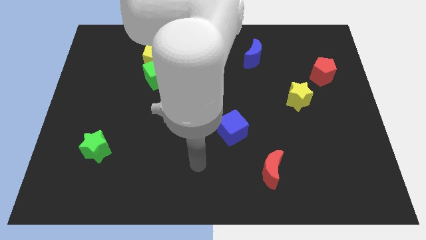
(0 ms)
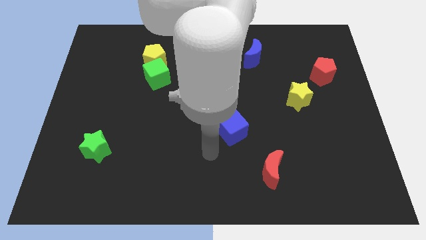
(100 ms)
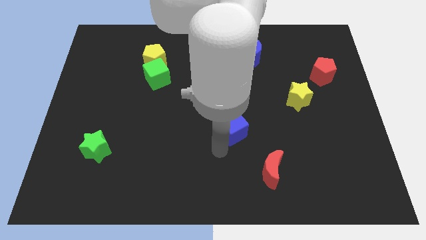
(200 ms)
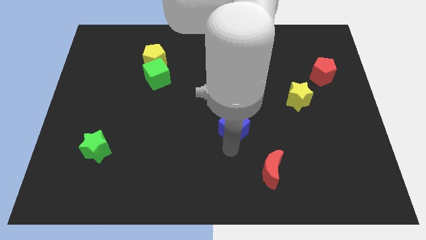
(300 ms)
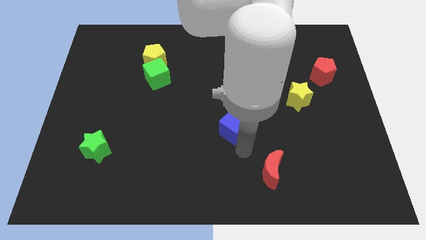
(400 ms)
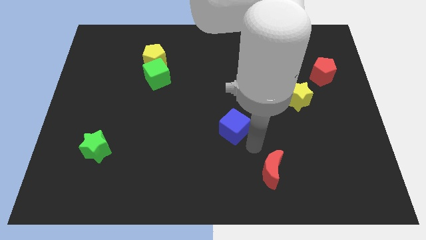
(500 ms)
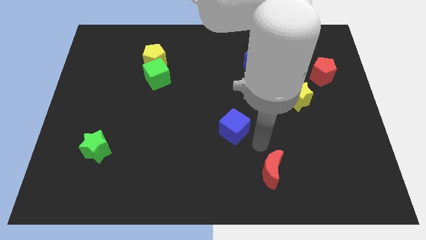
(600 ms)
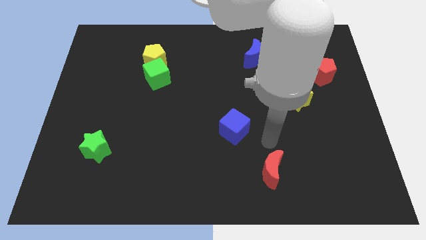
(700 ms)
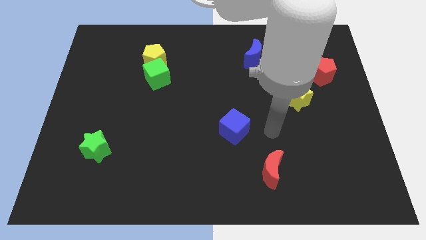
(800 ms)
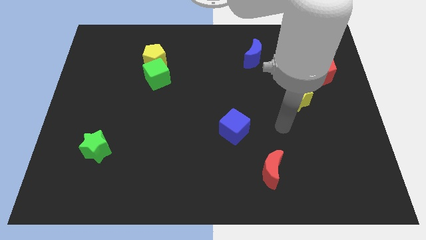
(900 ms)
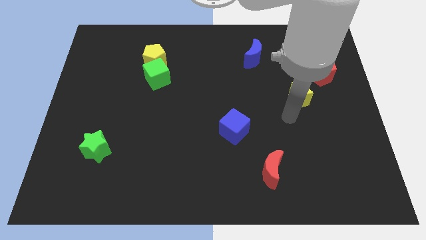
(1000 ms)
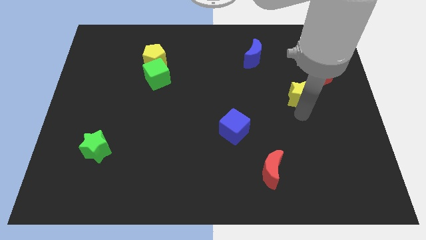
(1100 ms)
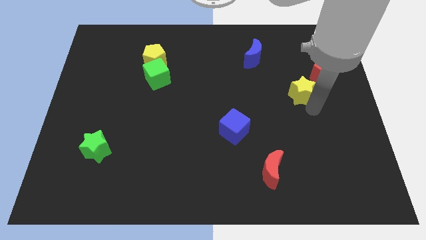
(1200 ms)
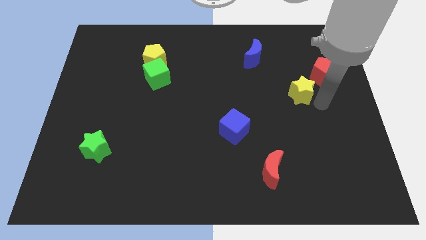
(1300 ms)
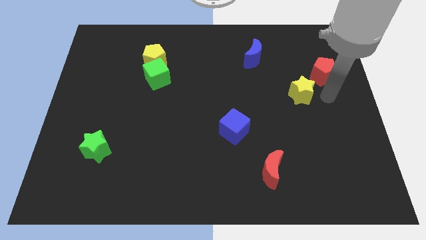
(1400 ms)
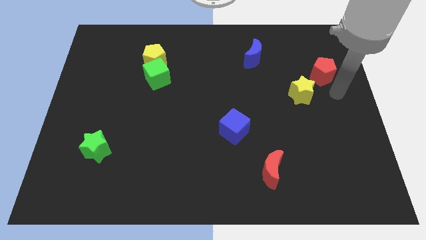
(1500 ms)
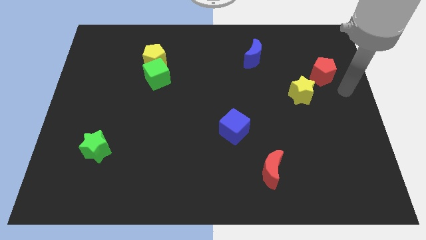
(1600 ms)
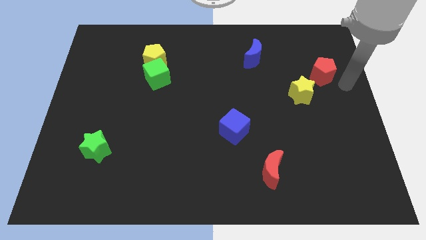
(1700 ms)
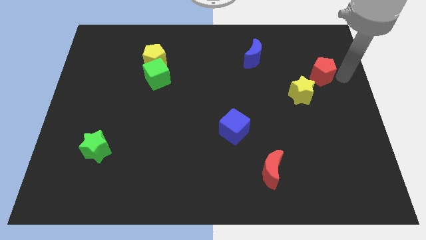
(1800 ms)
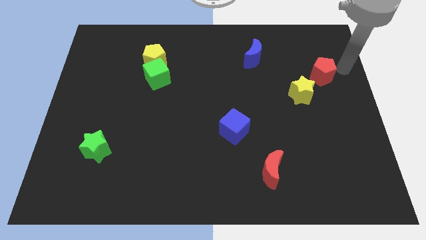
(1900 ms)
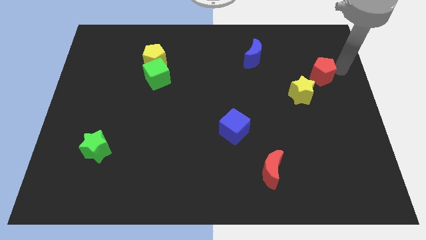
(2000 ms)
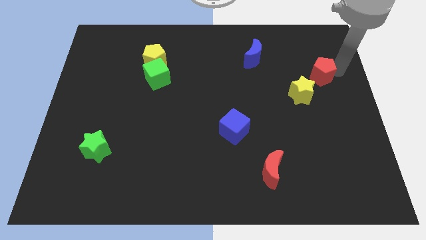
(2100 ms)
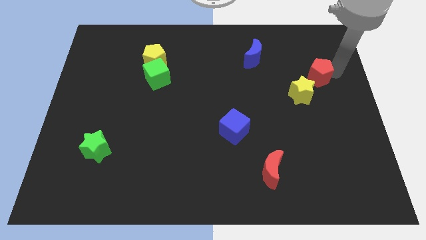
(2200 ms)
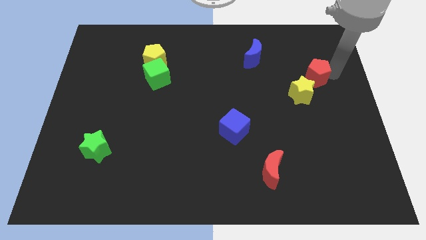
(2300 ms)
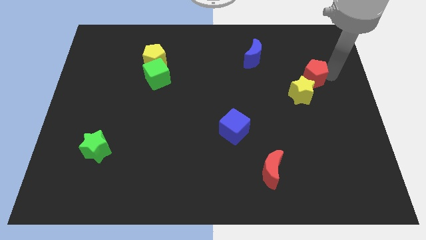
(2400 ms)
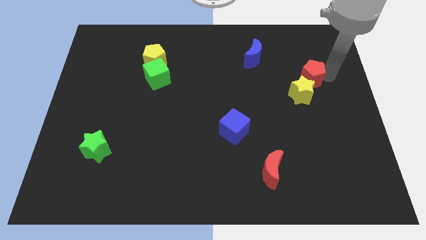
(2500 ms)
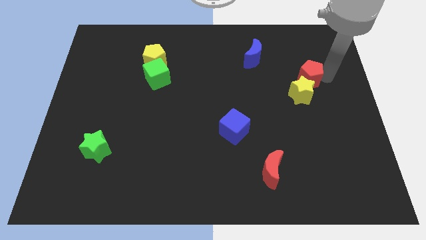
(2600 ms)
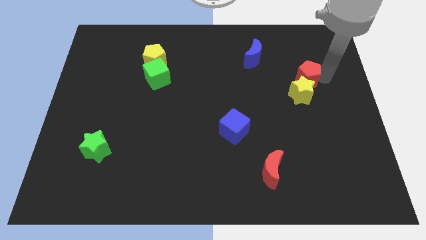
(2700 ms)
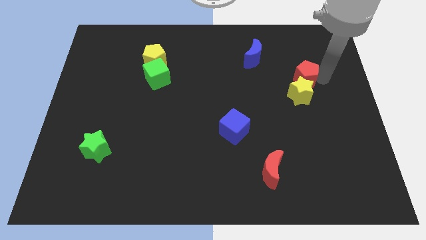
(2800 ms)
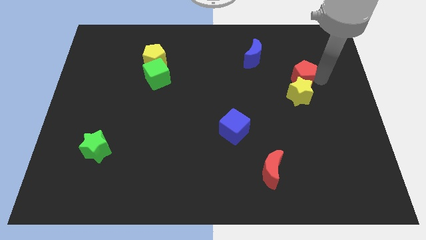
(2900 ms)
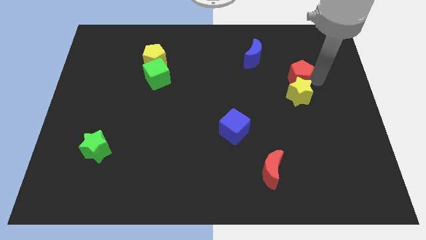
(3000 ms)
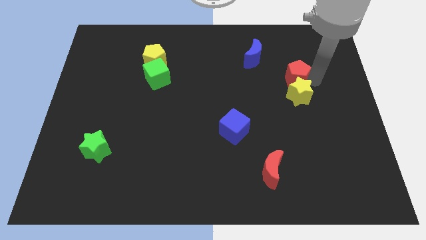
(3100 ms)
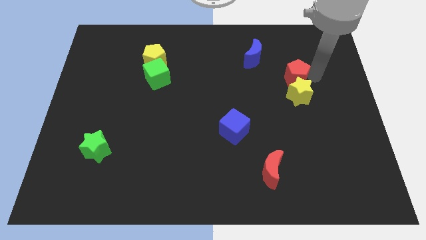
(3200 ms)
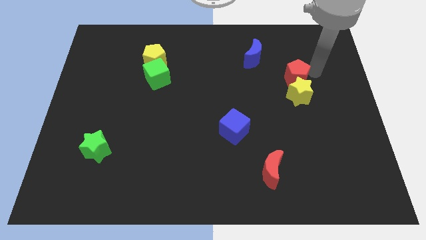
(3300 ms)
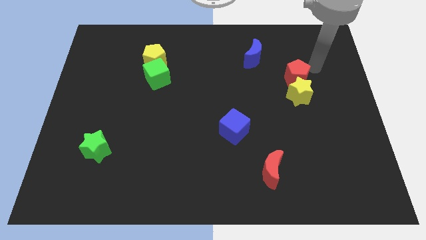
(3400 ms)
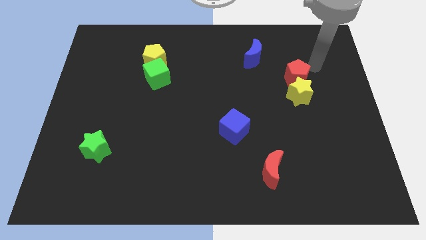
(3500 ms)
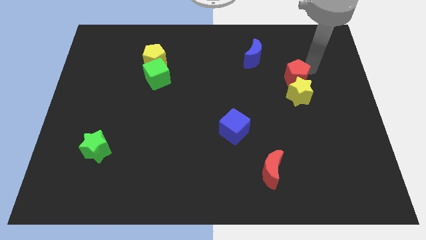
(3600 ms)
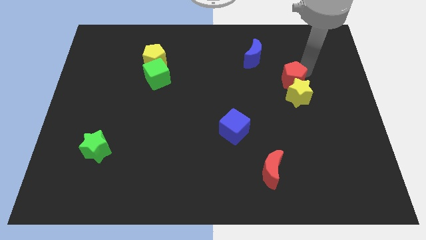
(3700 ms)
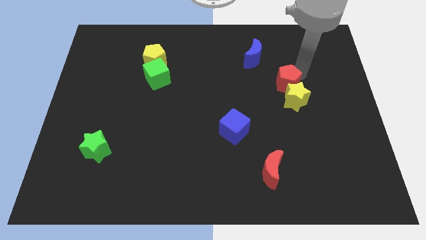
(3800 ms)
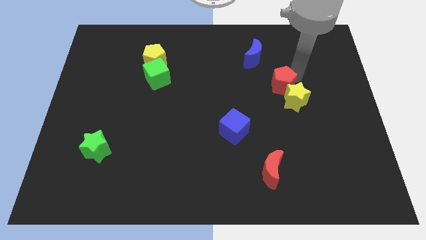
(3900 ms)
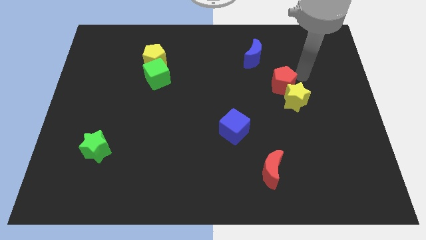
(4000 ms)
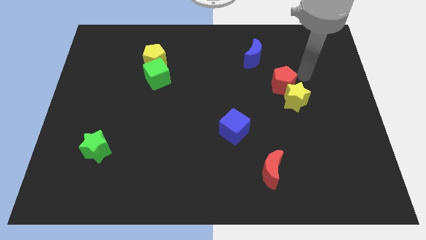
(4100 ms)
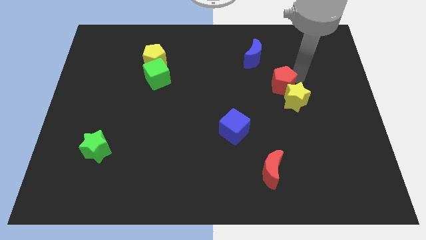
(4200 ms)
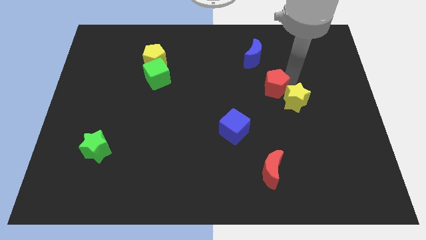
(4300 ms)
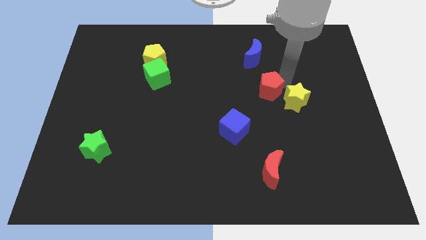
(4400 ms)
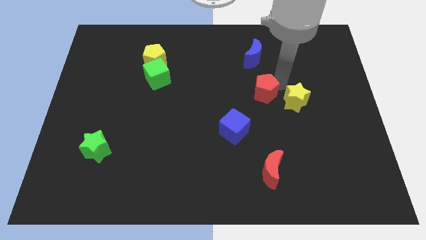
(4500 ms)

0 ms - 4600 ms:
push the red pentagon to the center

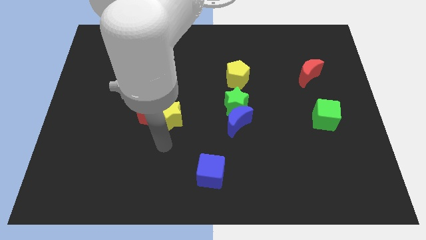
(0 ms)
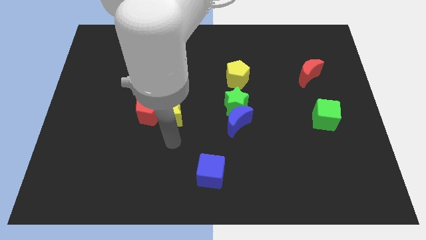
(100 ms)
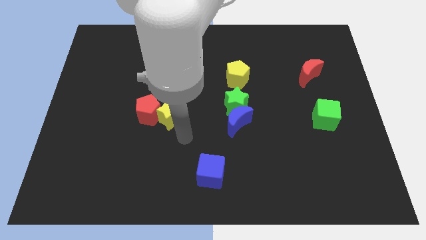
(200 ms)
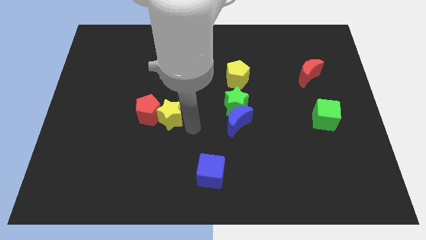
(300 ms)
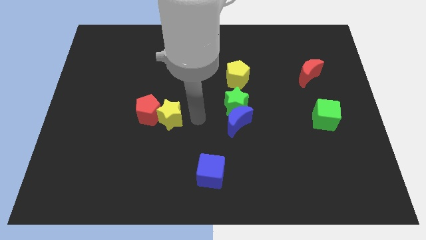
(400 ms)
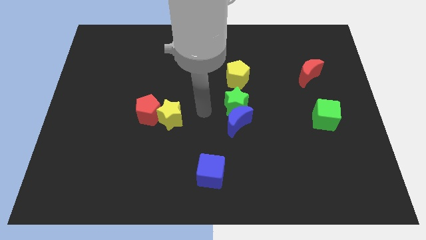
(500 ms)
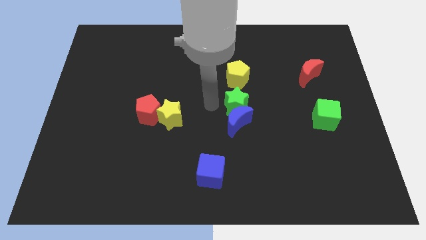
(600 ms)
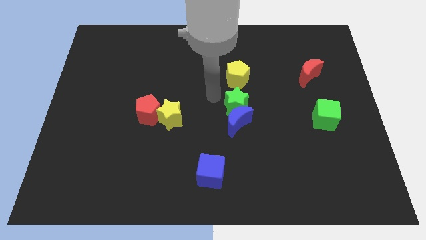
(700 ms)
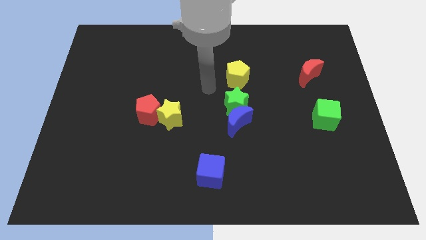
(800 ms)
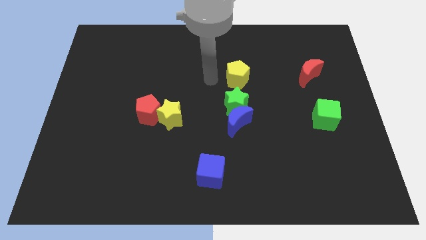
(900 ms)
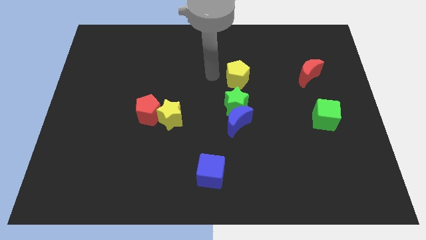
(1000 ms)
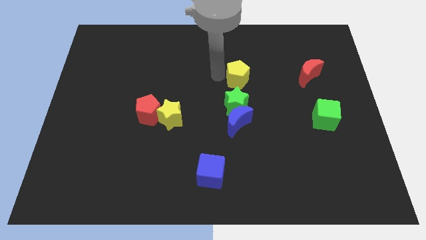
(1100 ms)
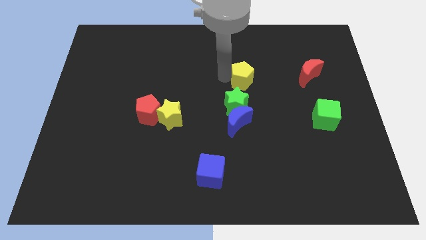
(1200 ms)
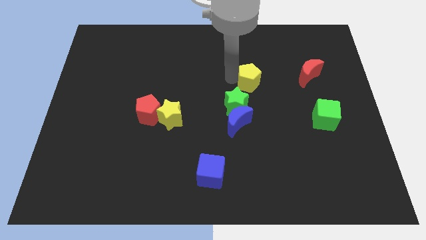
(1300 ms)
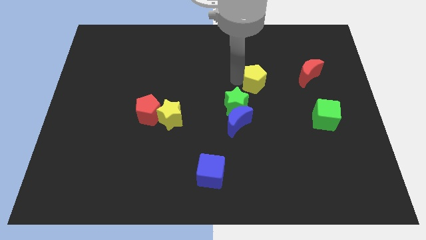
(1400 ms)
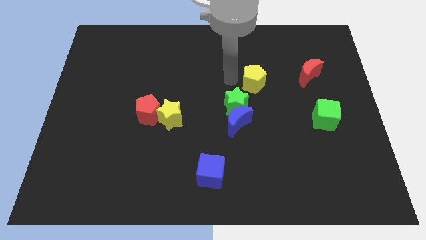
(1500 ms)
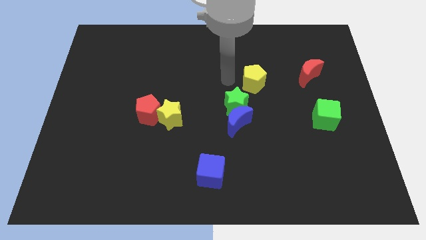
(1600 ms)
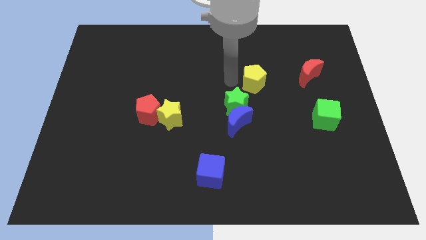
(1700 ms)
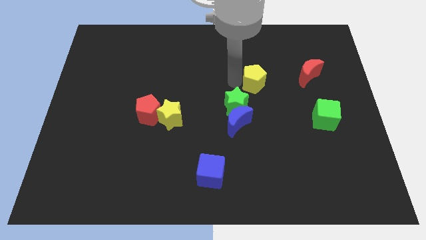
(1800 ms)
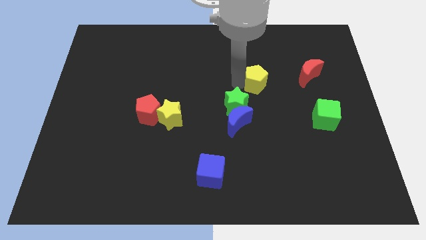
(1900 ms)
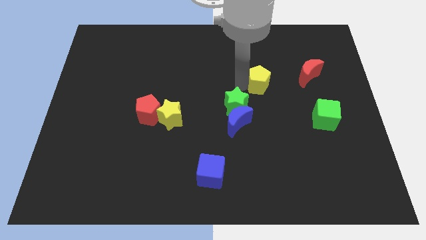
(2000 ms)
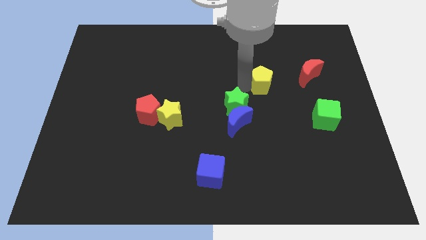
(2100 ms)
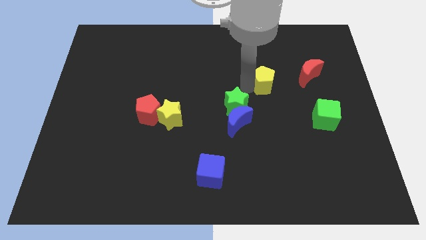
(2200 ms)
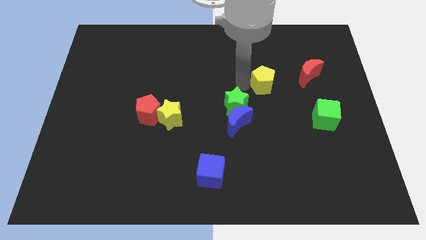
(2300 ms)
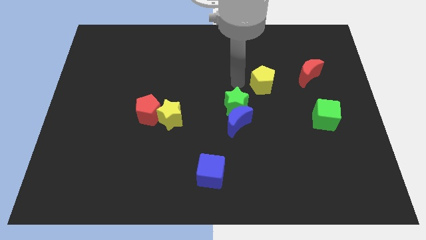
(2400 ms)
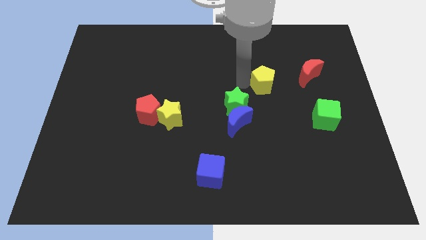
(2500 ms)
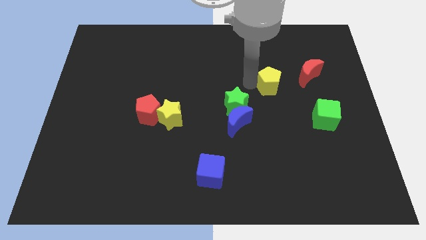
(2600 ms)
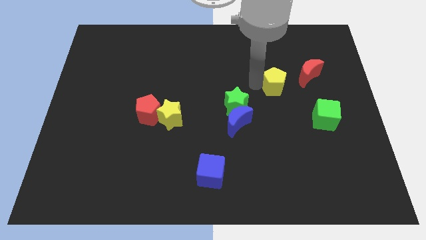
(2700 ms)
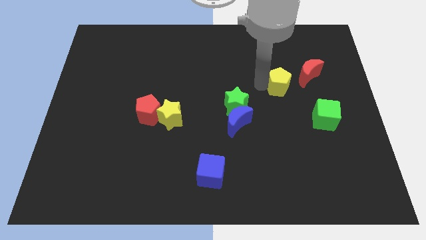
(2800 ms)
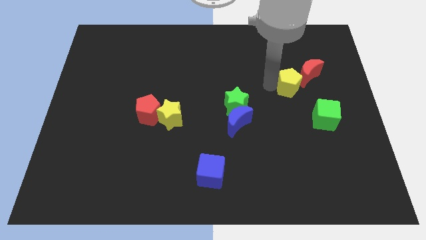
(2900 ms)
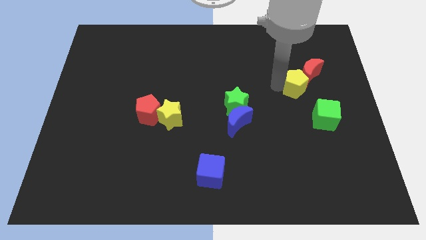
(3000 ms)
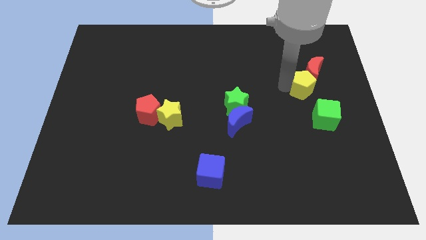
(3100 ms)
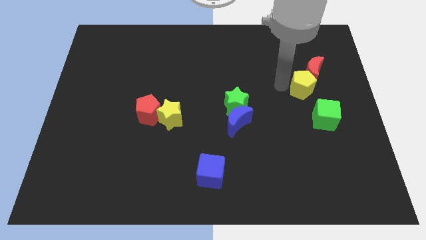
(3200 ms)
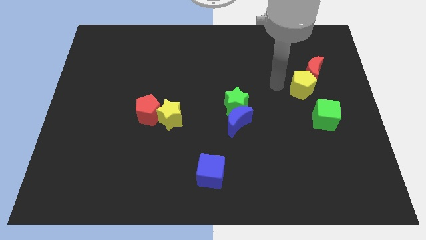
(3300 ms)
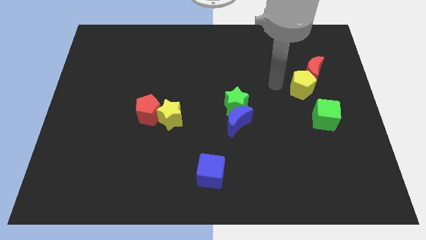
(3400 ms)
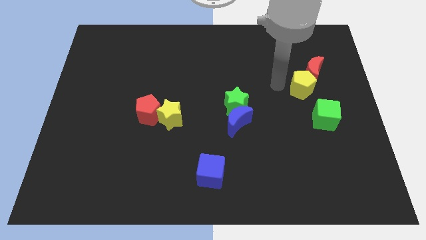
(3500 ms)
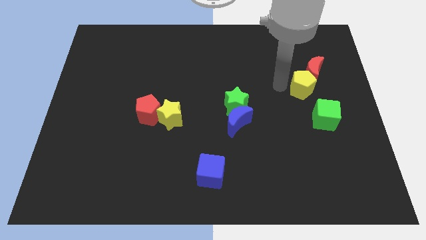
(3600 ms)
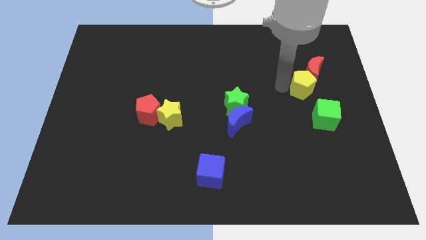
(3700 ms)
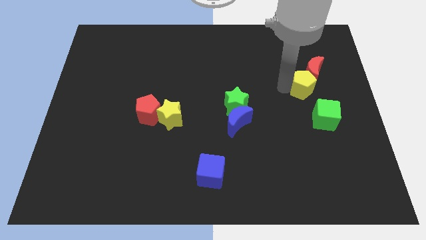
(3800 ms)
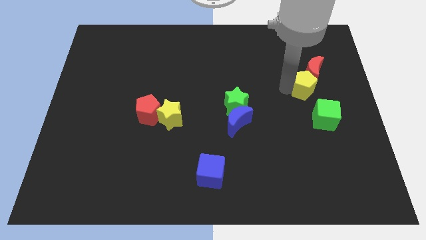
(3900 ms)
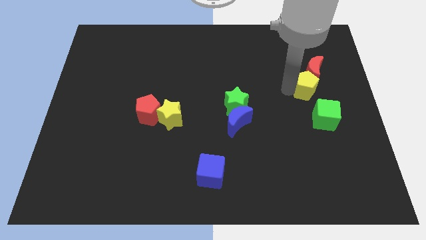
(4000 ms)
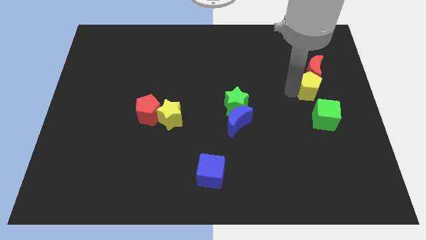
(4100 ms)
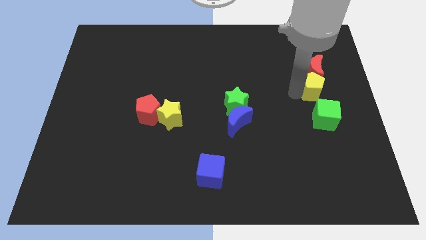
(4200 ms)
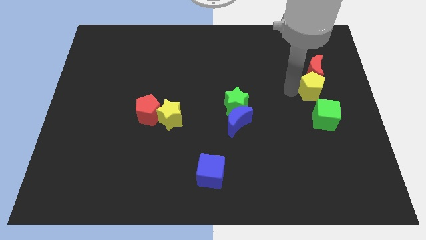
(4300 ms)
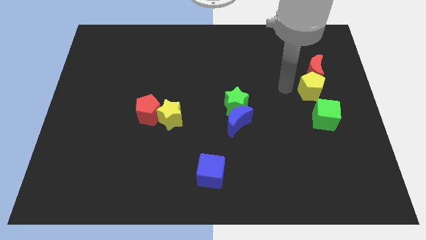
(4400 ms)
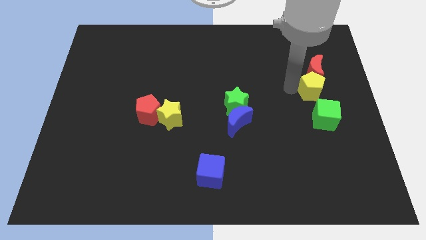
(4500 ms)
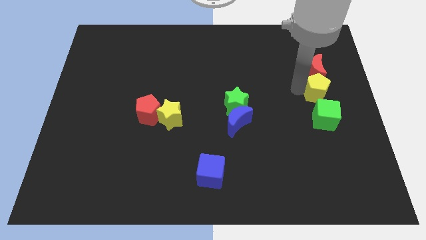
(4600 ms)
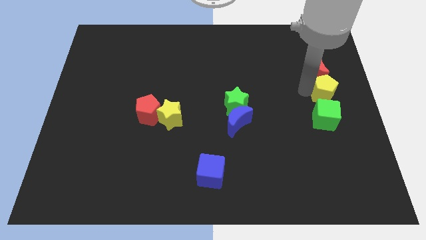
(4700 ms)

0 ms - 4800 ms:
put the yellow pentagon to the center right
